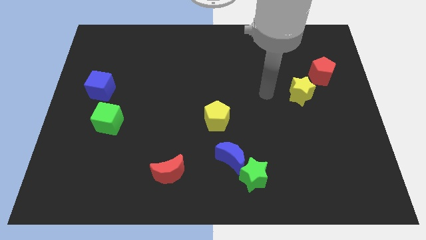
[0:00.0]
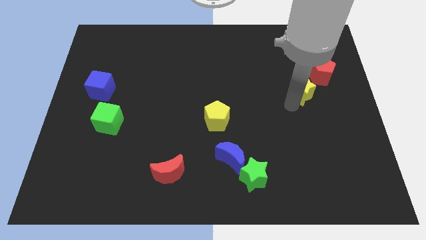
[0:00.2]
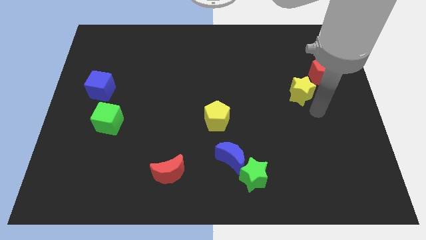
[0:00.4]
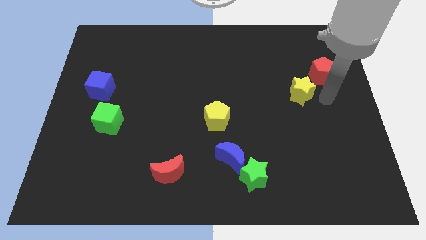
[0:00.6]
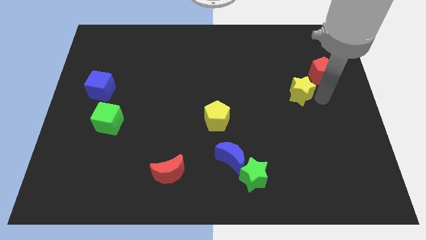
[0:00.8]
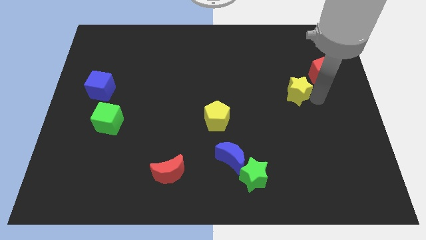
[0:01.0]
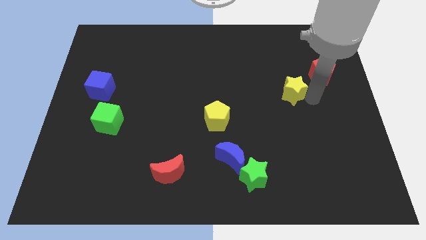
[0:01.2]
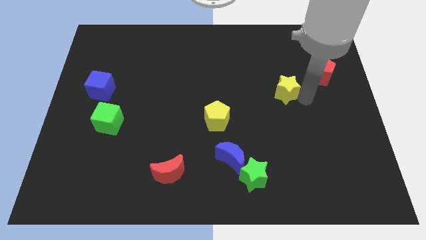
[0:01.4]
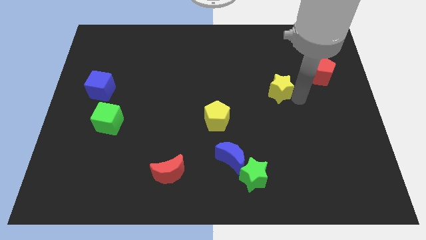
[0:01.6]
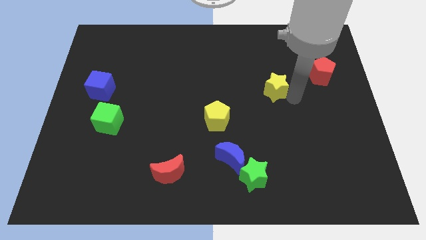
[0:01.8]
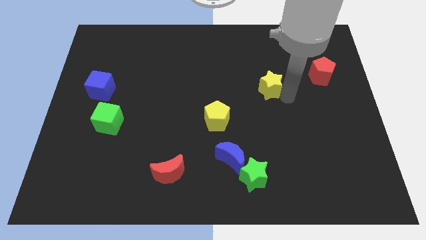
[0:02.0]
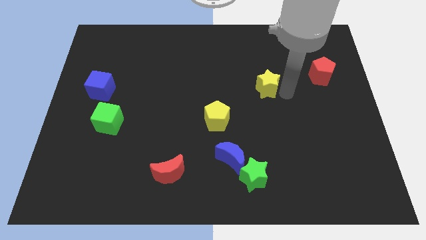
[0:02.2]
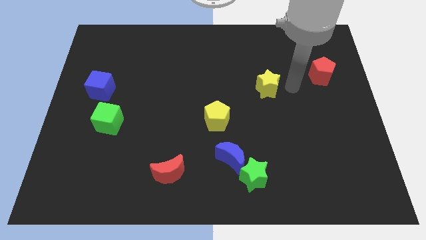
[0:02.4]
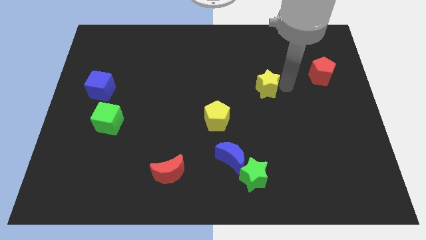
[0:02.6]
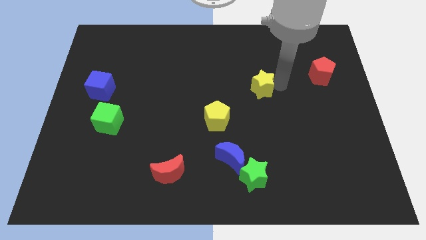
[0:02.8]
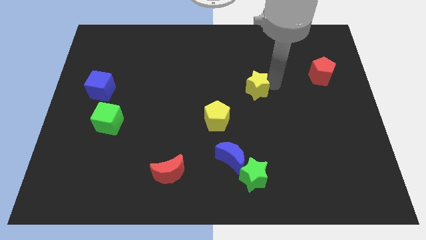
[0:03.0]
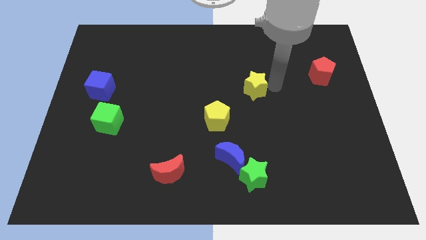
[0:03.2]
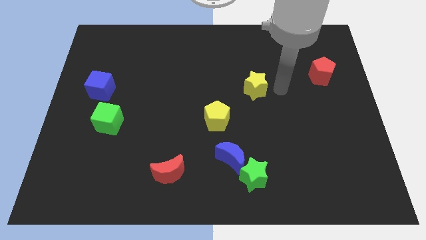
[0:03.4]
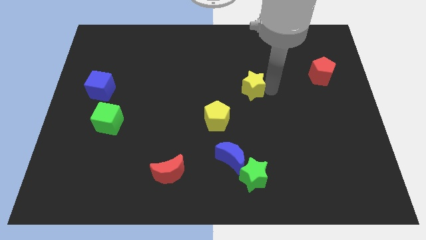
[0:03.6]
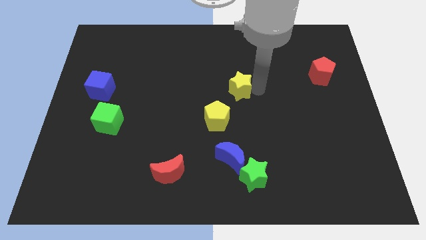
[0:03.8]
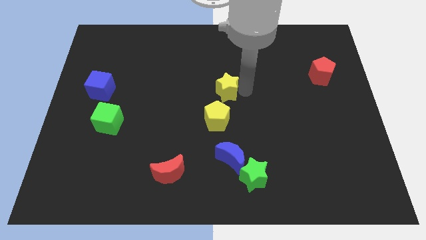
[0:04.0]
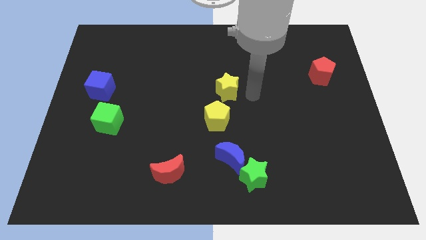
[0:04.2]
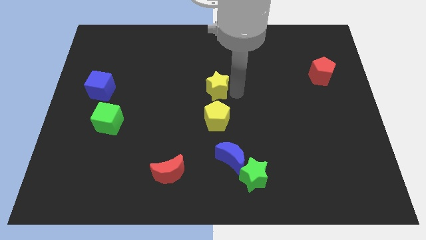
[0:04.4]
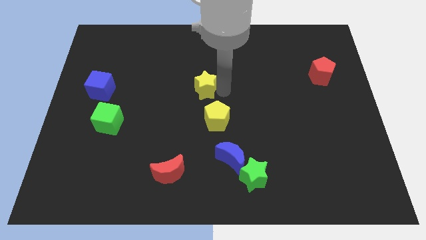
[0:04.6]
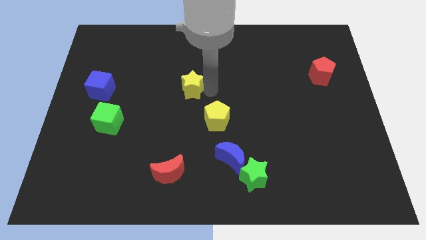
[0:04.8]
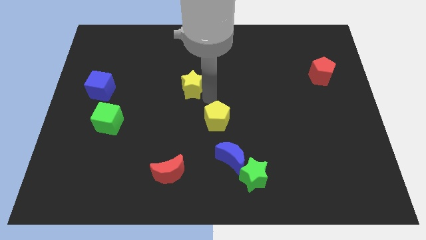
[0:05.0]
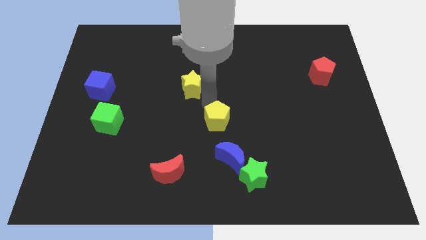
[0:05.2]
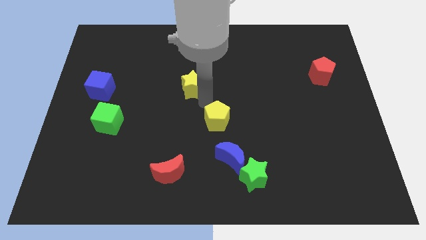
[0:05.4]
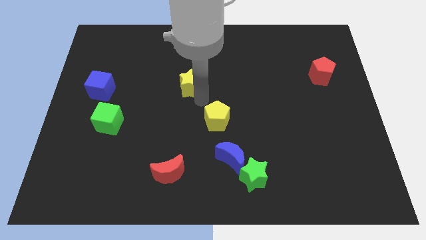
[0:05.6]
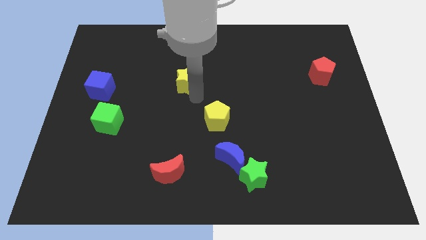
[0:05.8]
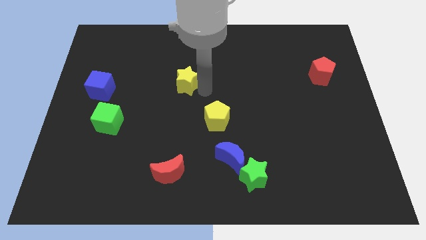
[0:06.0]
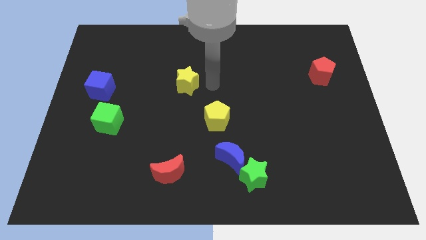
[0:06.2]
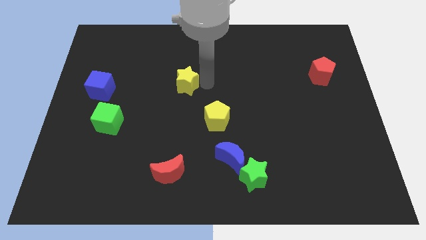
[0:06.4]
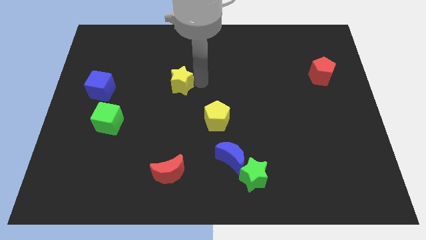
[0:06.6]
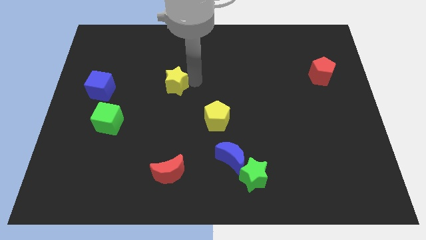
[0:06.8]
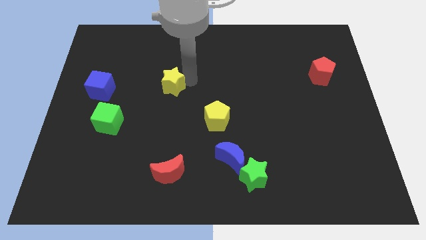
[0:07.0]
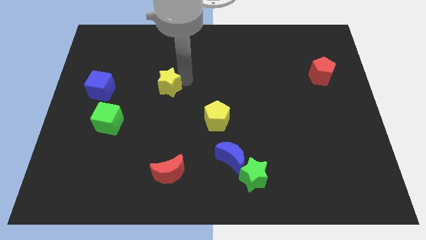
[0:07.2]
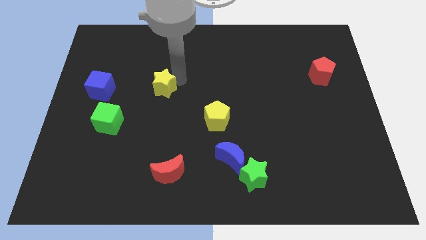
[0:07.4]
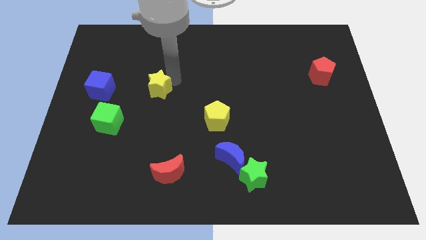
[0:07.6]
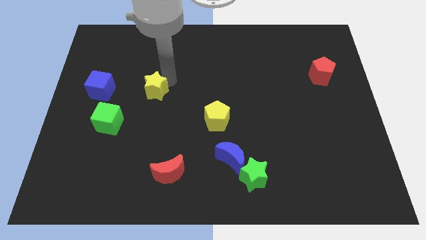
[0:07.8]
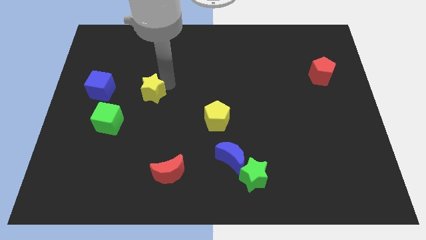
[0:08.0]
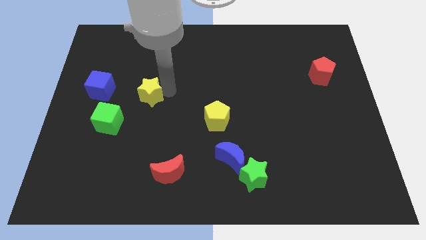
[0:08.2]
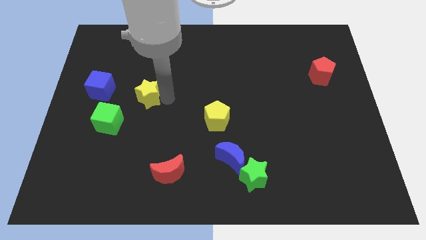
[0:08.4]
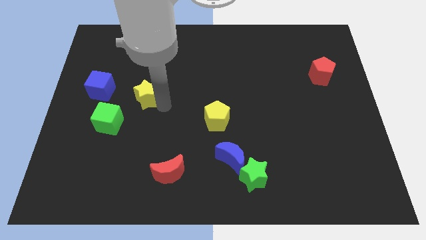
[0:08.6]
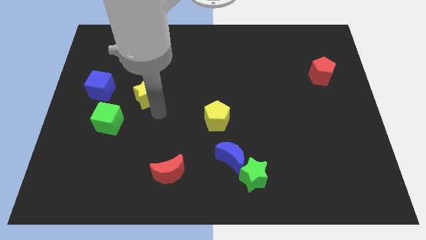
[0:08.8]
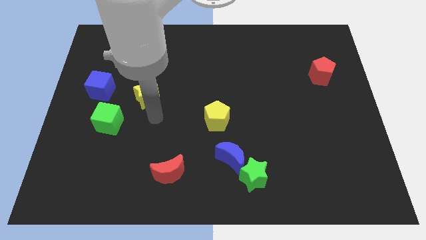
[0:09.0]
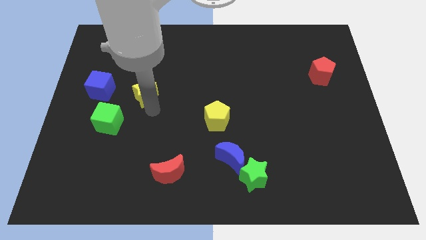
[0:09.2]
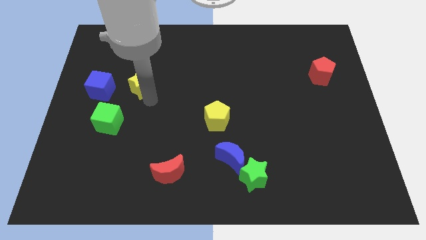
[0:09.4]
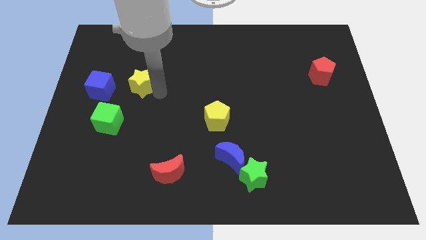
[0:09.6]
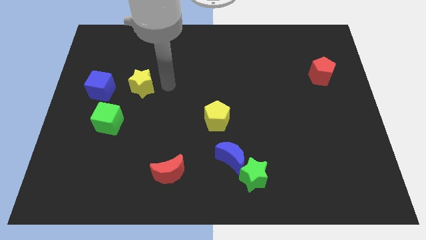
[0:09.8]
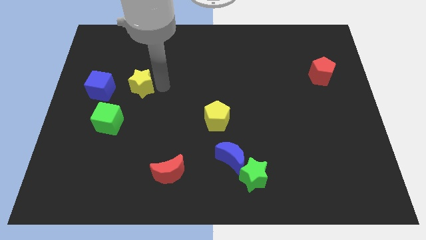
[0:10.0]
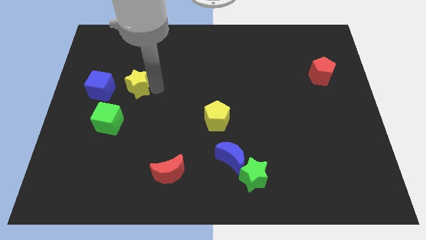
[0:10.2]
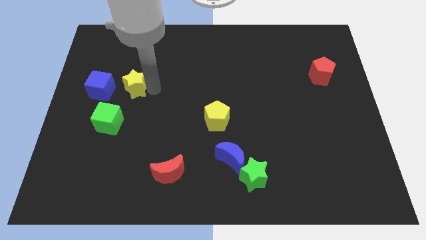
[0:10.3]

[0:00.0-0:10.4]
move the yellow star to the top of the green cube

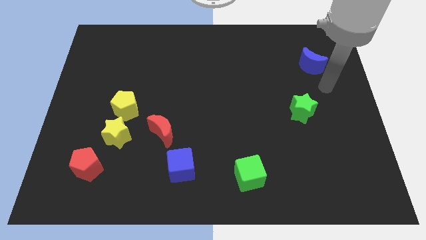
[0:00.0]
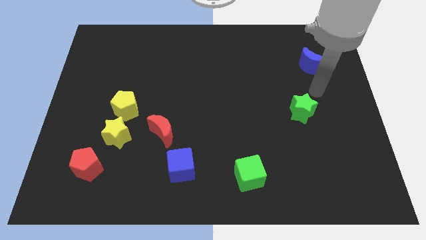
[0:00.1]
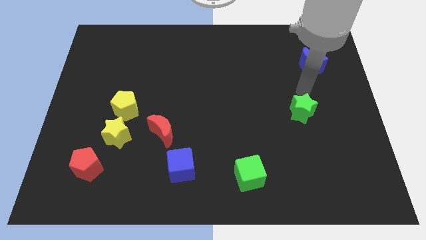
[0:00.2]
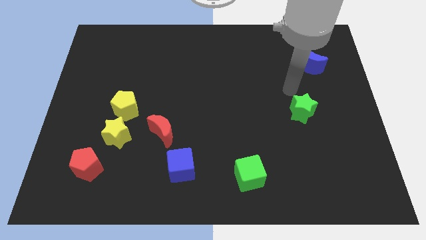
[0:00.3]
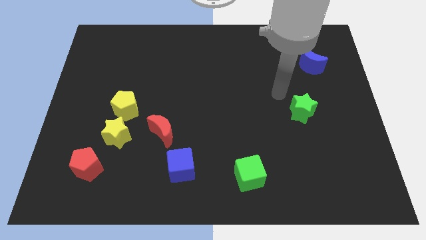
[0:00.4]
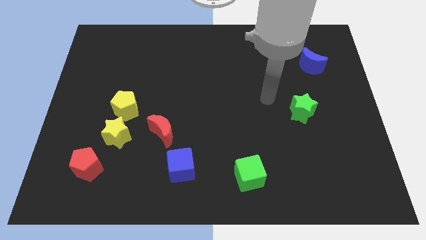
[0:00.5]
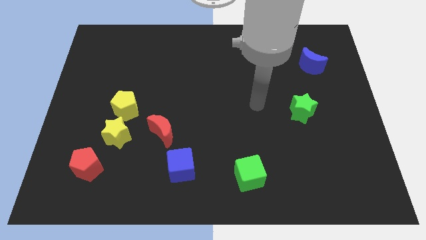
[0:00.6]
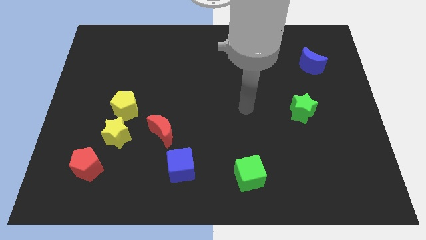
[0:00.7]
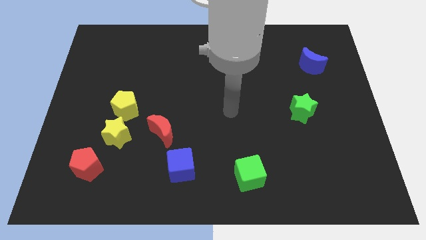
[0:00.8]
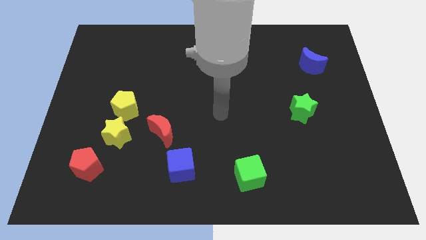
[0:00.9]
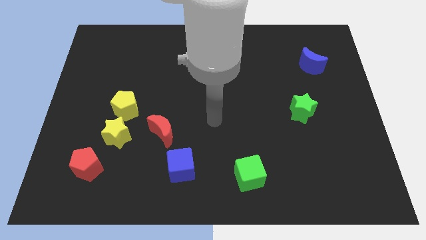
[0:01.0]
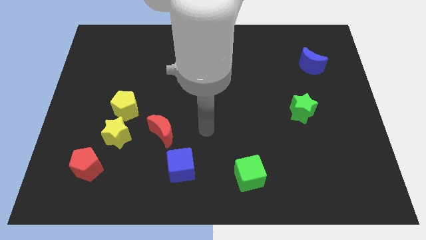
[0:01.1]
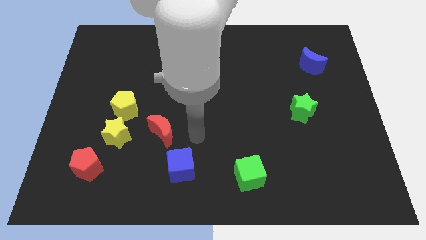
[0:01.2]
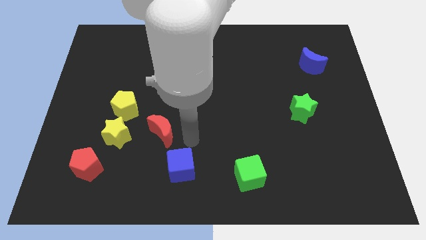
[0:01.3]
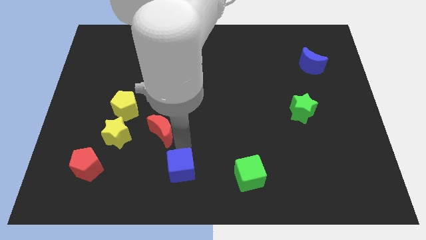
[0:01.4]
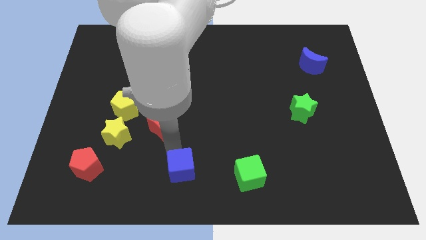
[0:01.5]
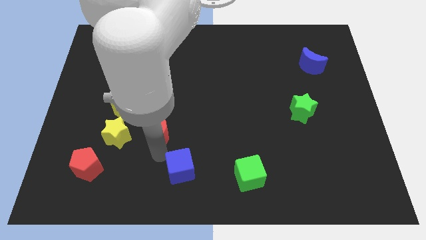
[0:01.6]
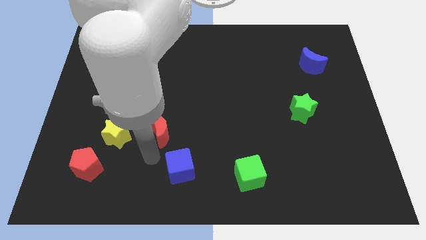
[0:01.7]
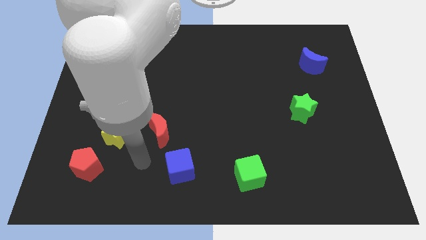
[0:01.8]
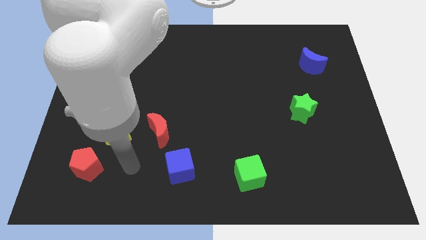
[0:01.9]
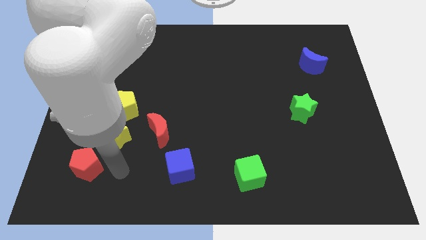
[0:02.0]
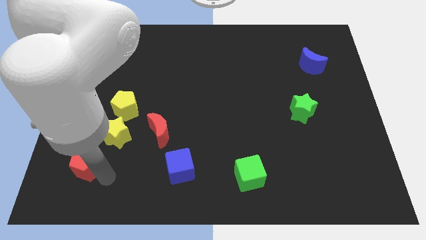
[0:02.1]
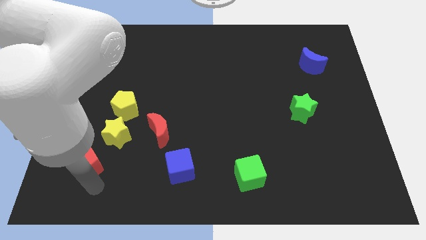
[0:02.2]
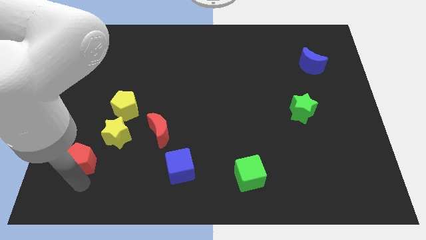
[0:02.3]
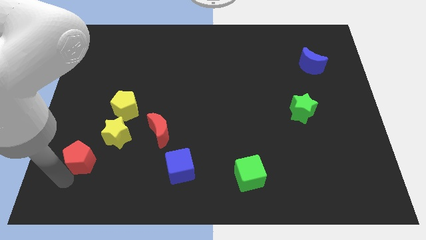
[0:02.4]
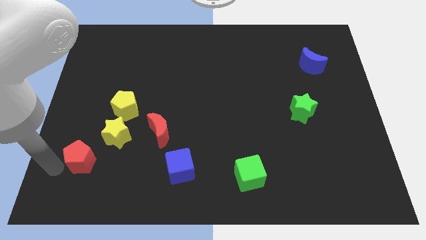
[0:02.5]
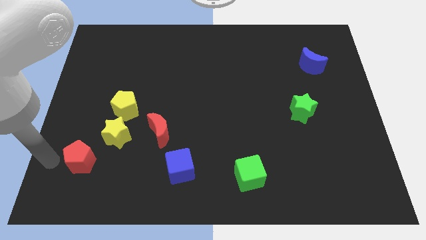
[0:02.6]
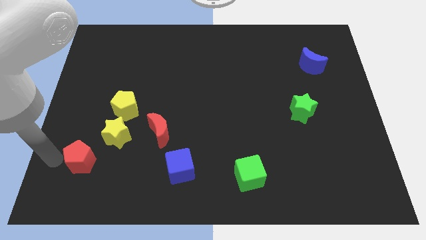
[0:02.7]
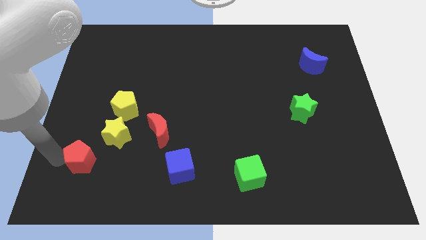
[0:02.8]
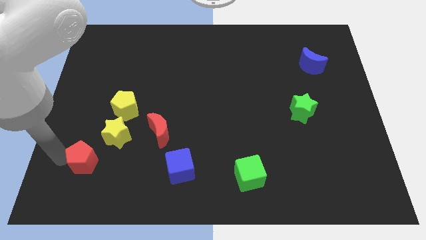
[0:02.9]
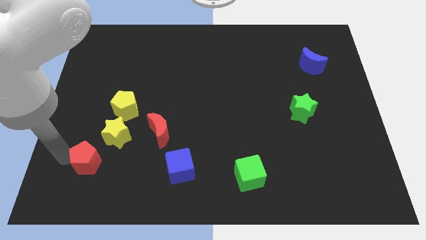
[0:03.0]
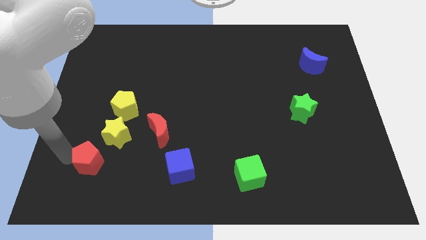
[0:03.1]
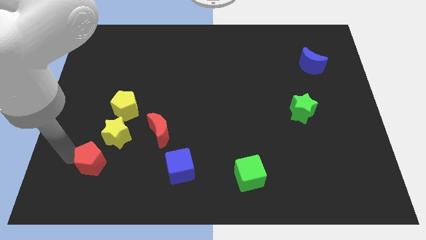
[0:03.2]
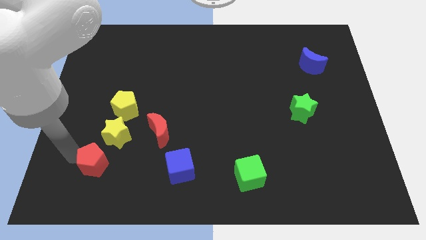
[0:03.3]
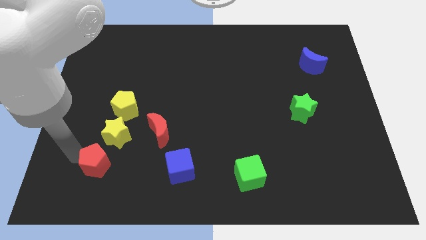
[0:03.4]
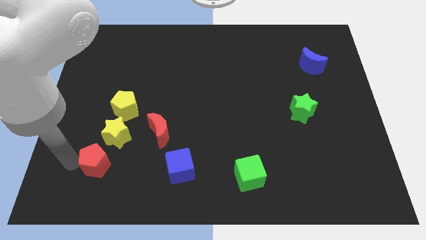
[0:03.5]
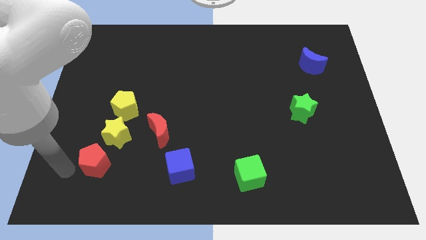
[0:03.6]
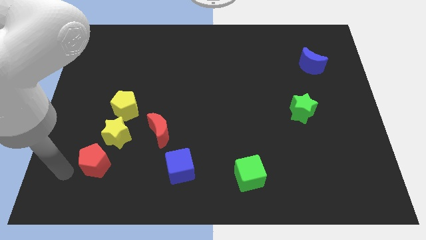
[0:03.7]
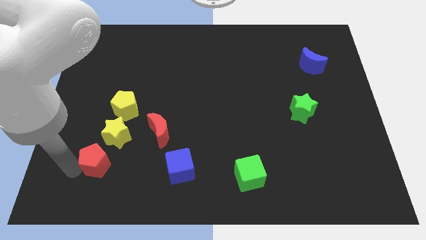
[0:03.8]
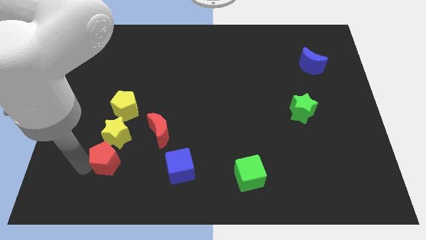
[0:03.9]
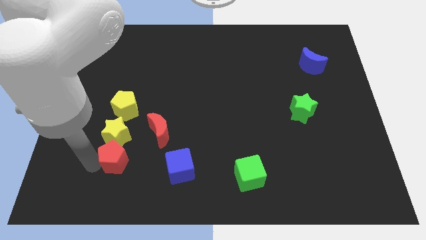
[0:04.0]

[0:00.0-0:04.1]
slide the red pentagon to the bottom left side of the red moon
